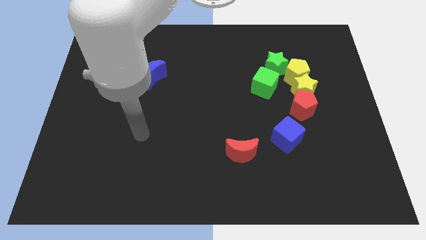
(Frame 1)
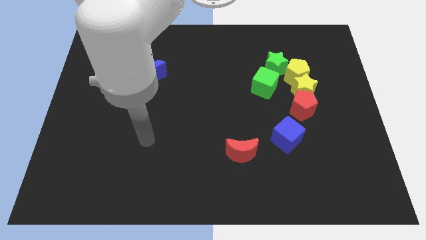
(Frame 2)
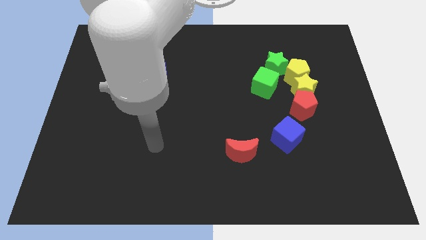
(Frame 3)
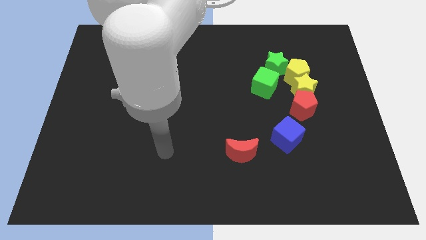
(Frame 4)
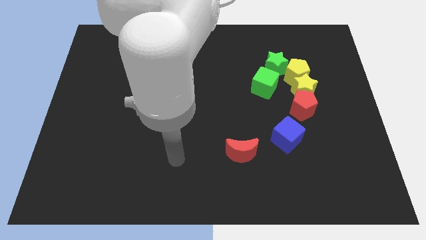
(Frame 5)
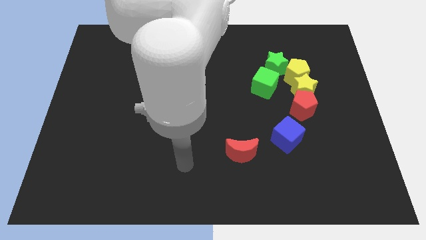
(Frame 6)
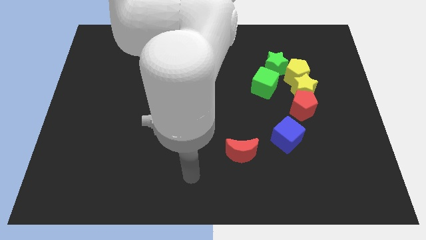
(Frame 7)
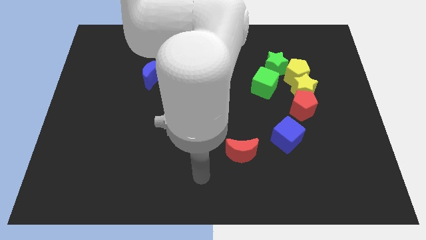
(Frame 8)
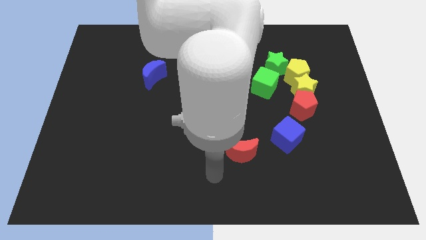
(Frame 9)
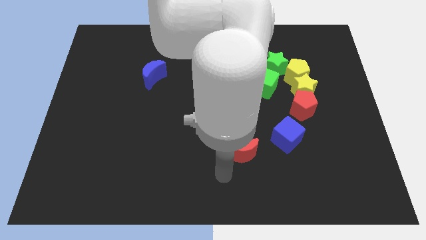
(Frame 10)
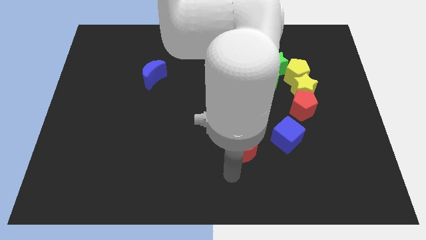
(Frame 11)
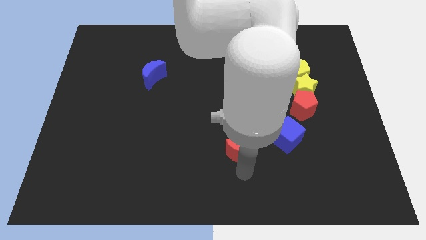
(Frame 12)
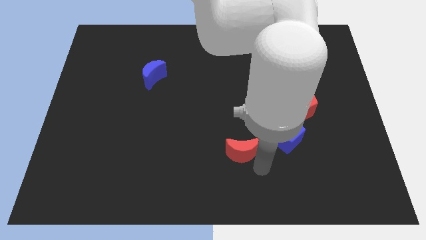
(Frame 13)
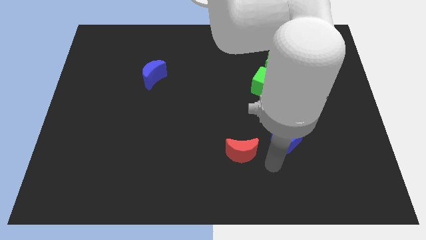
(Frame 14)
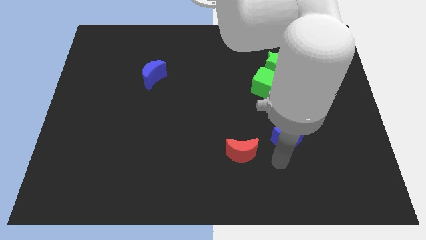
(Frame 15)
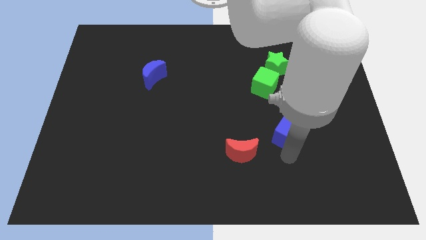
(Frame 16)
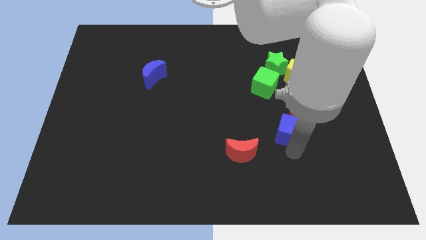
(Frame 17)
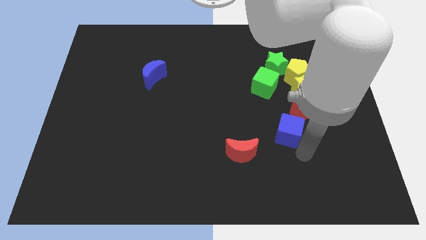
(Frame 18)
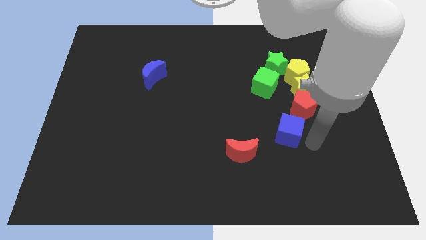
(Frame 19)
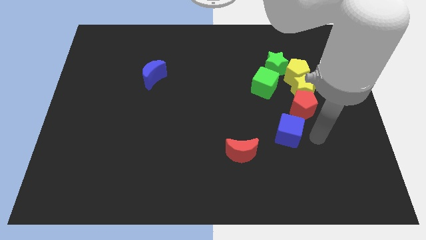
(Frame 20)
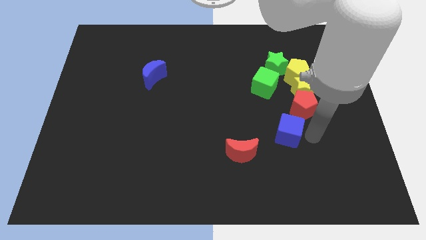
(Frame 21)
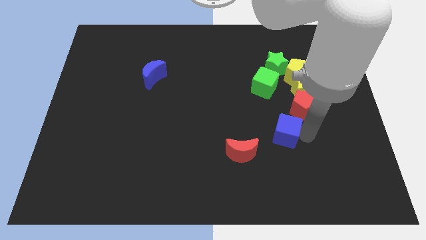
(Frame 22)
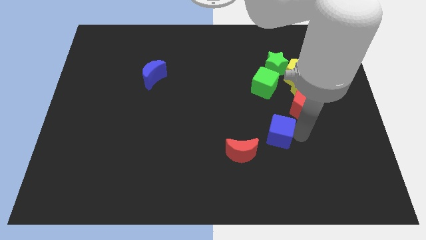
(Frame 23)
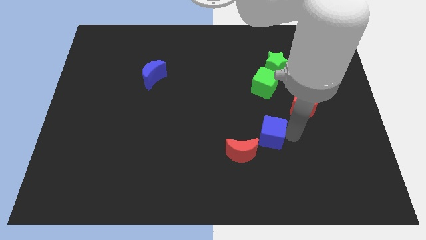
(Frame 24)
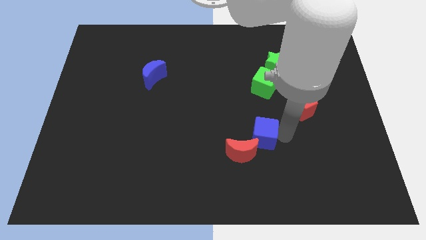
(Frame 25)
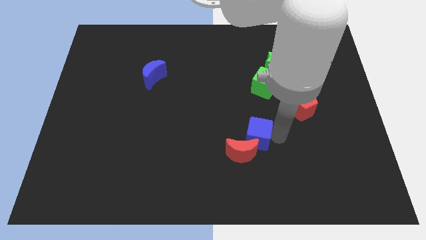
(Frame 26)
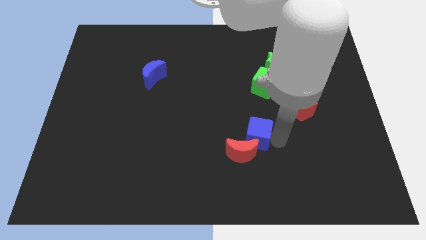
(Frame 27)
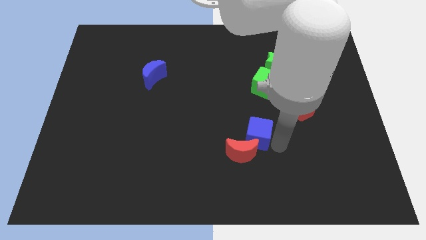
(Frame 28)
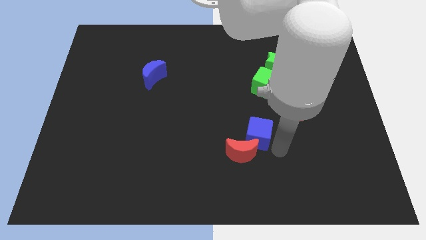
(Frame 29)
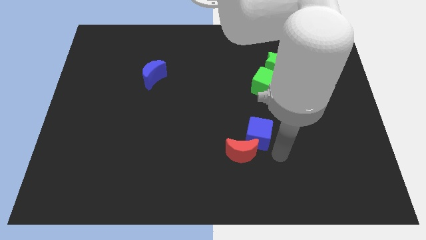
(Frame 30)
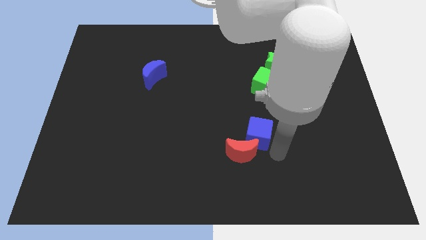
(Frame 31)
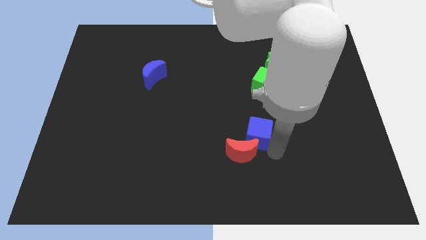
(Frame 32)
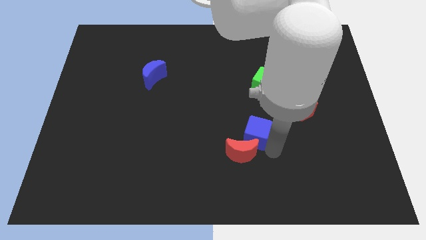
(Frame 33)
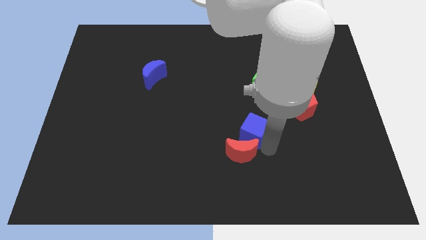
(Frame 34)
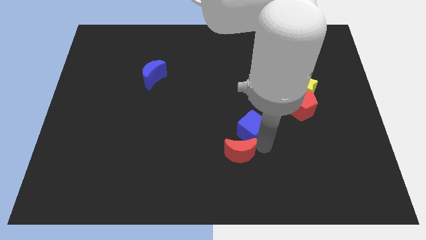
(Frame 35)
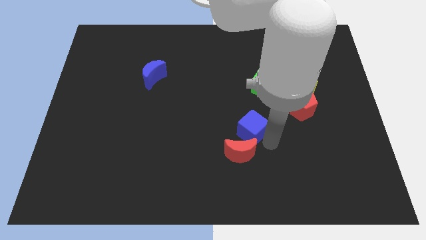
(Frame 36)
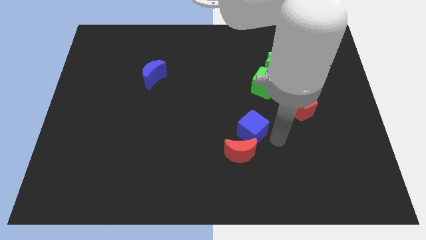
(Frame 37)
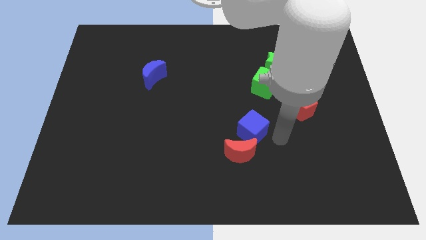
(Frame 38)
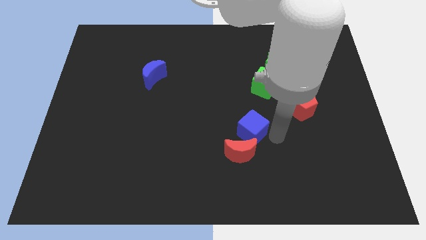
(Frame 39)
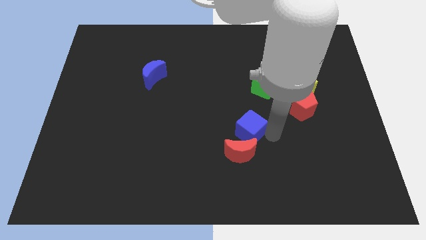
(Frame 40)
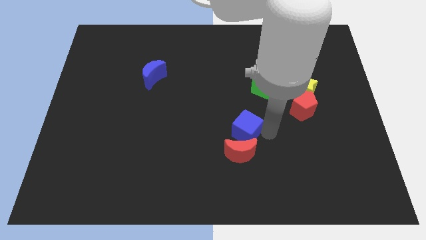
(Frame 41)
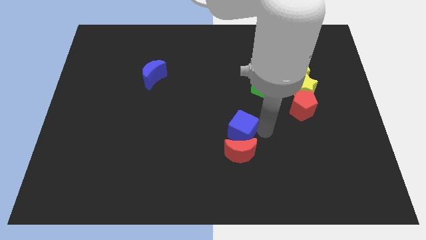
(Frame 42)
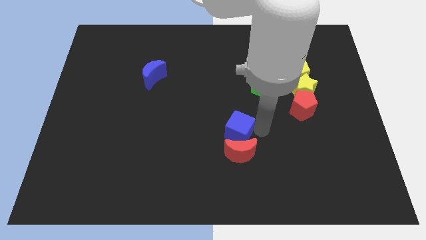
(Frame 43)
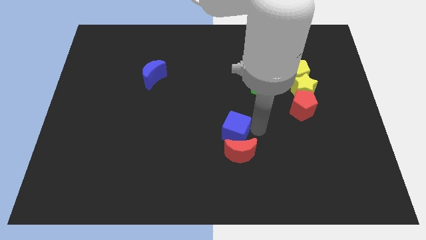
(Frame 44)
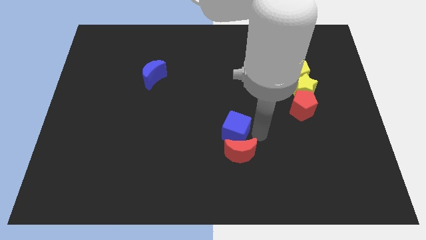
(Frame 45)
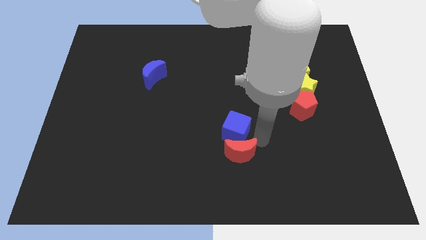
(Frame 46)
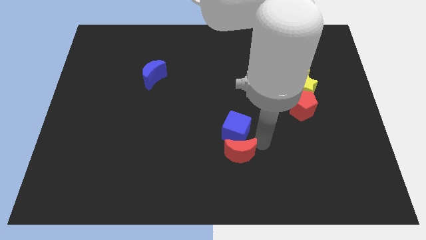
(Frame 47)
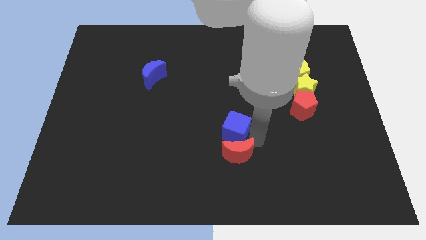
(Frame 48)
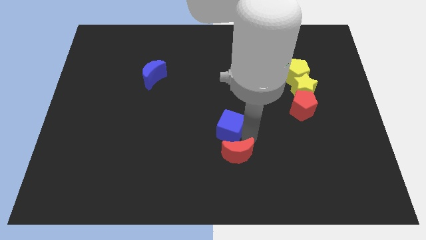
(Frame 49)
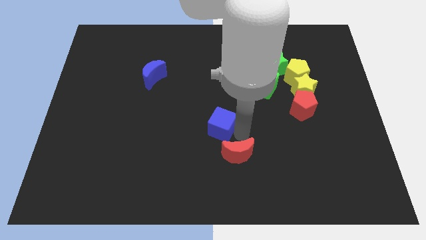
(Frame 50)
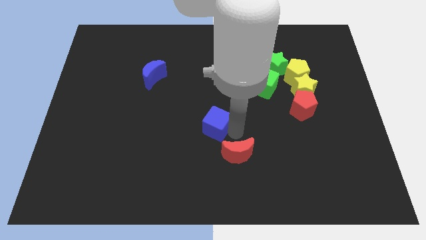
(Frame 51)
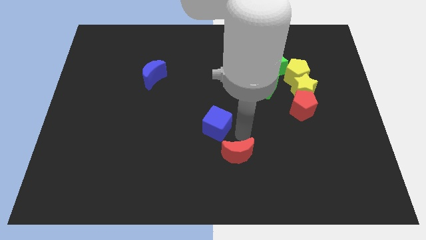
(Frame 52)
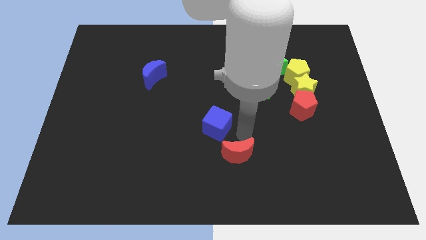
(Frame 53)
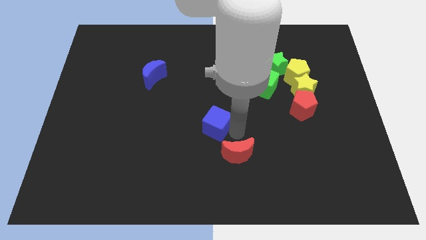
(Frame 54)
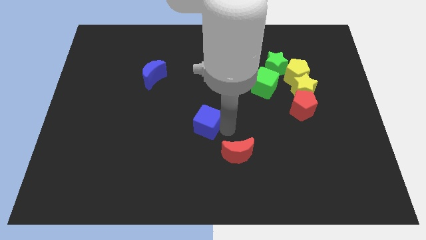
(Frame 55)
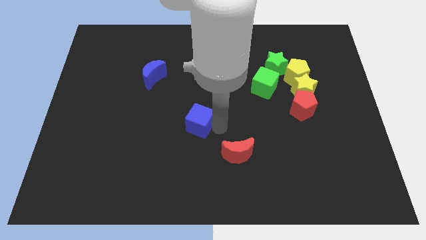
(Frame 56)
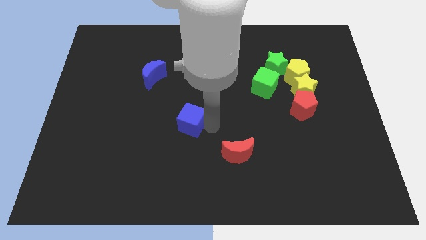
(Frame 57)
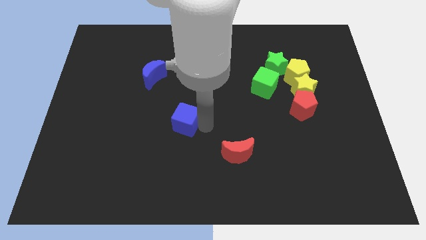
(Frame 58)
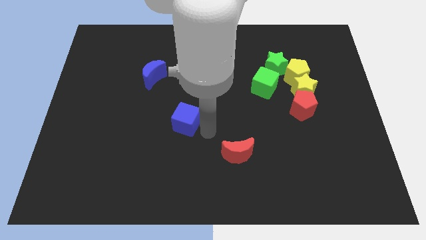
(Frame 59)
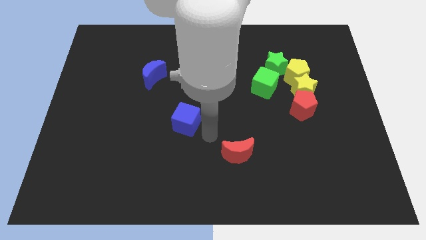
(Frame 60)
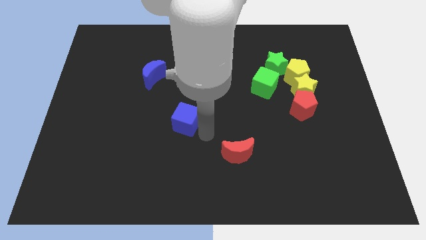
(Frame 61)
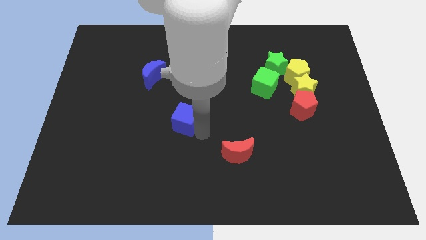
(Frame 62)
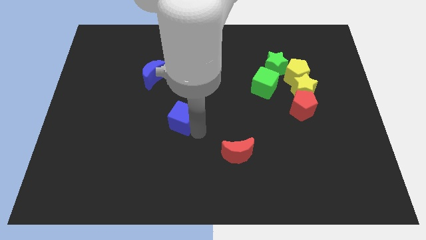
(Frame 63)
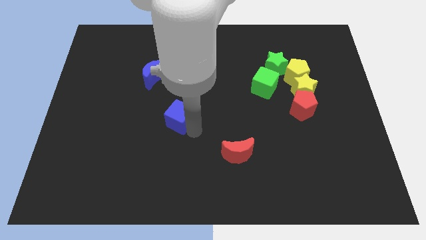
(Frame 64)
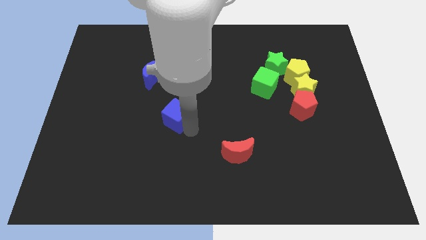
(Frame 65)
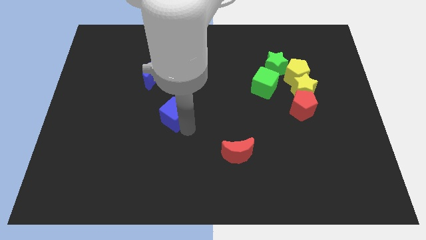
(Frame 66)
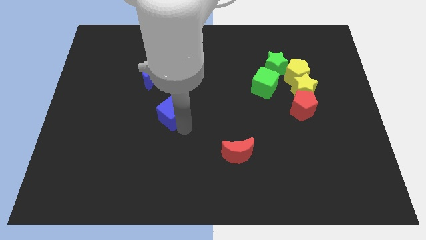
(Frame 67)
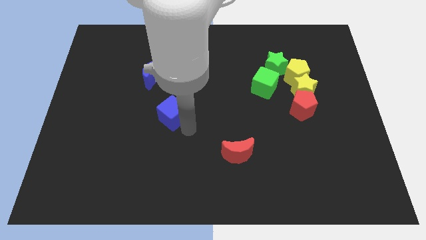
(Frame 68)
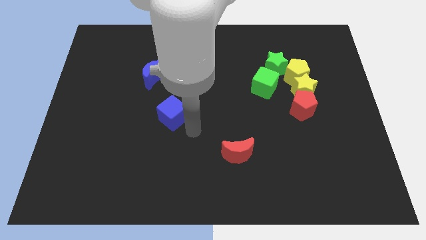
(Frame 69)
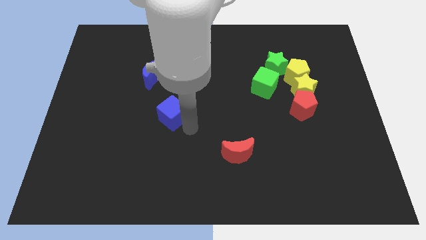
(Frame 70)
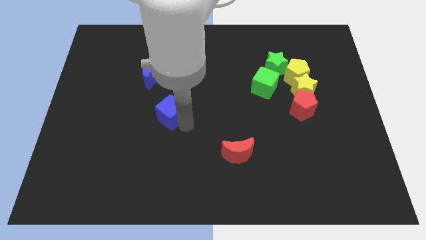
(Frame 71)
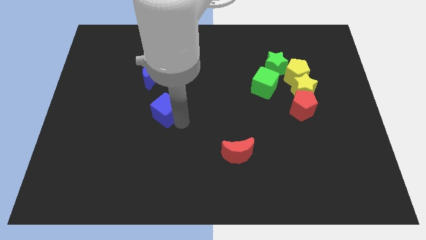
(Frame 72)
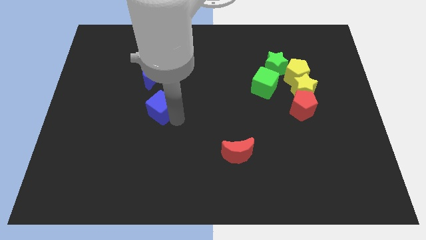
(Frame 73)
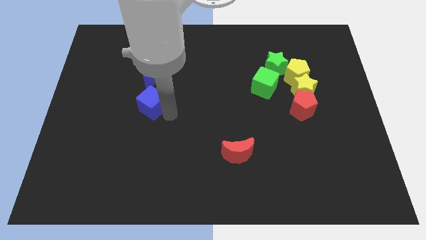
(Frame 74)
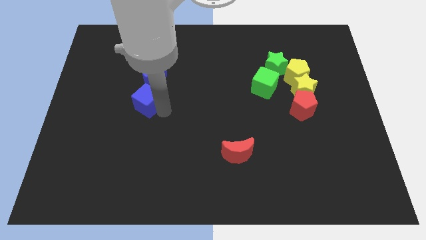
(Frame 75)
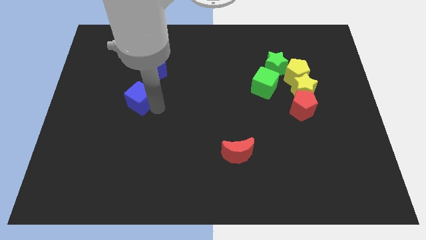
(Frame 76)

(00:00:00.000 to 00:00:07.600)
slide the blue cube diagonally down and to the left of the blue moon
